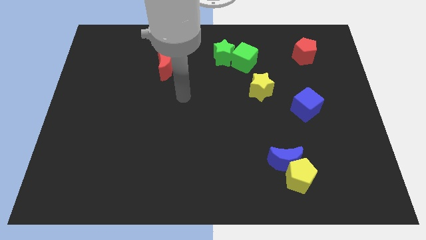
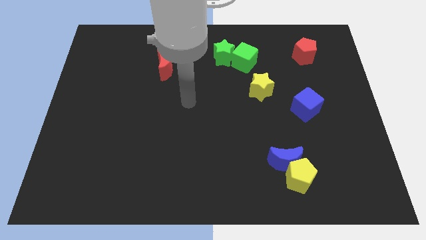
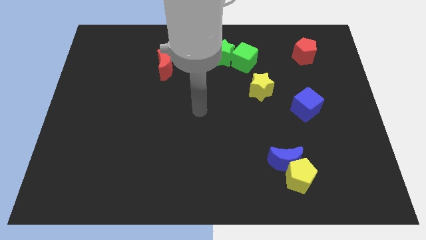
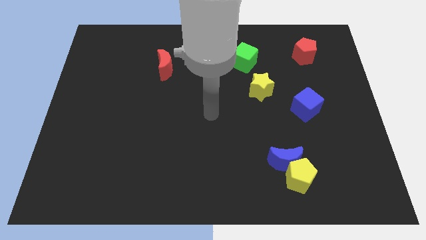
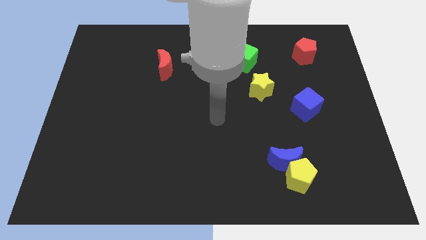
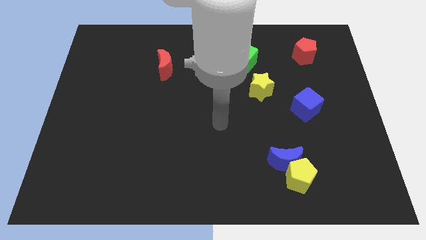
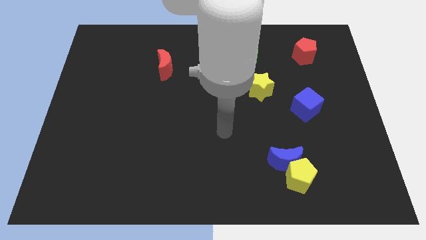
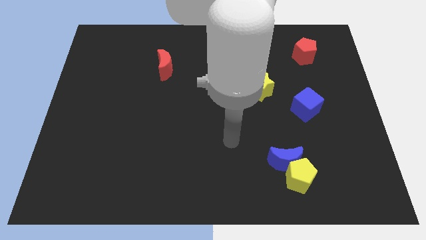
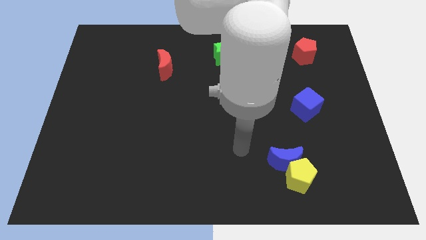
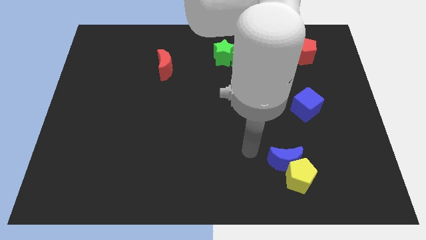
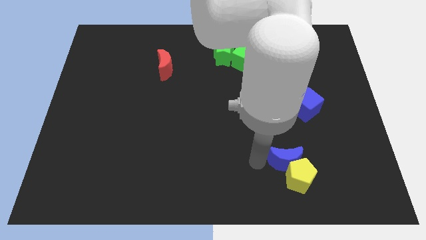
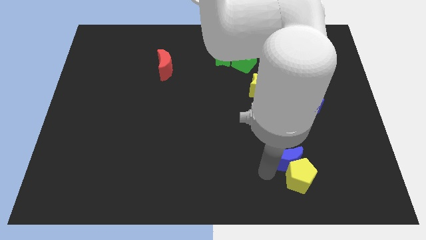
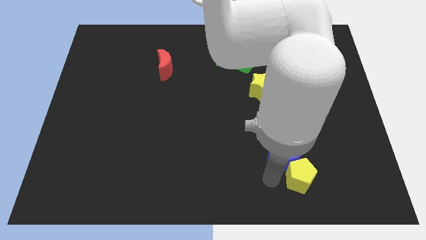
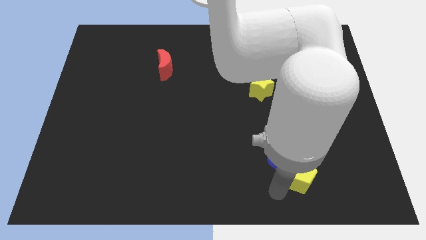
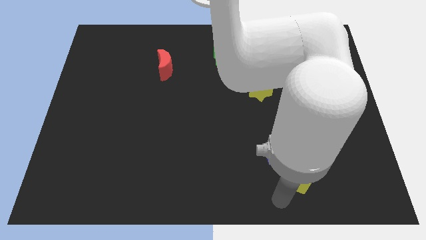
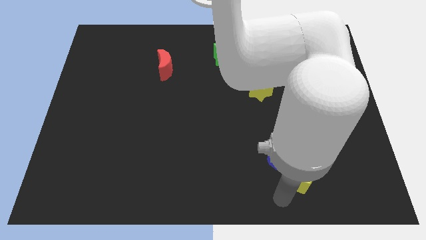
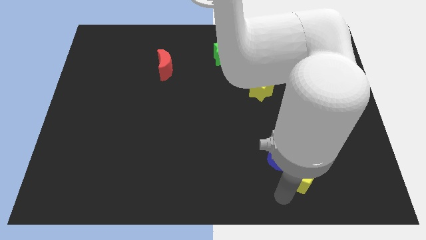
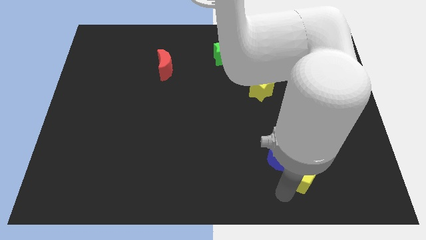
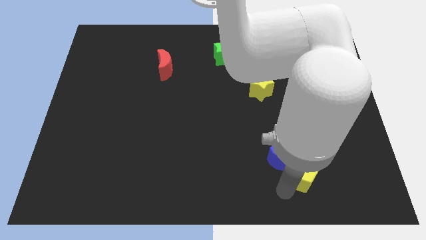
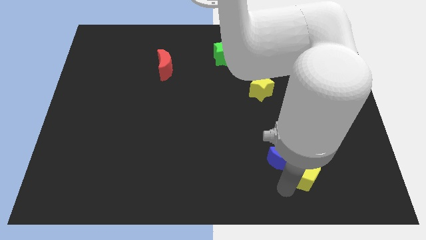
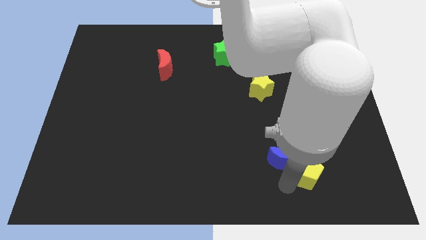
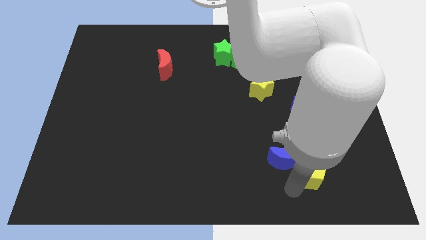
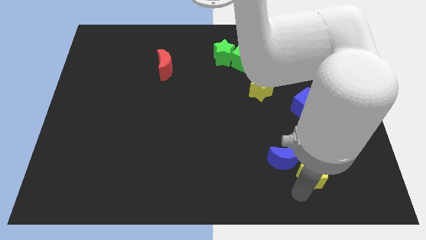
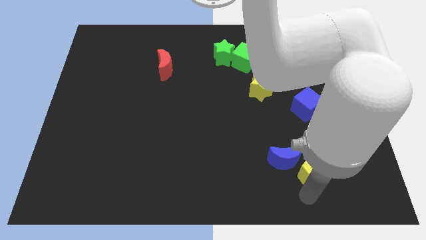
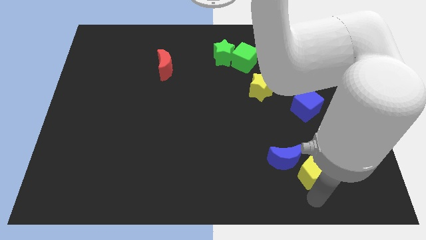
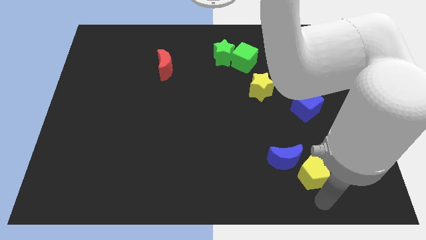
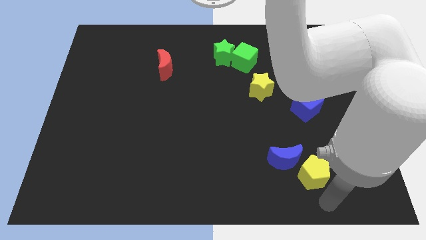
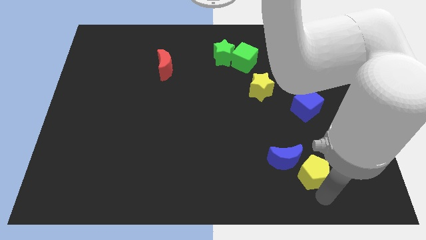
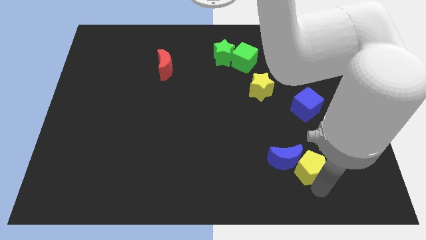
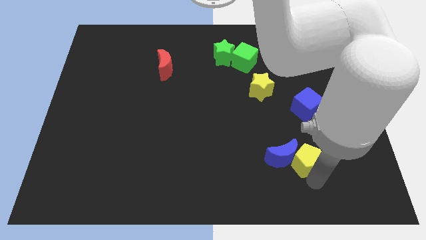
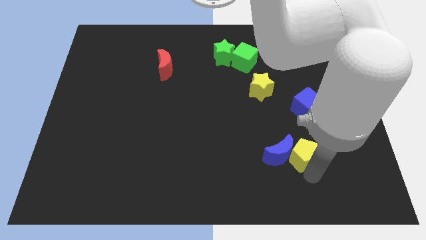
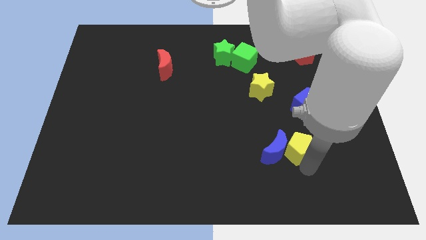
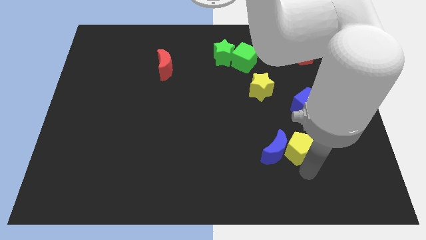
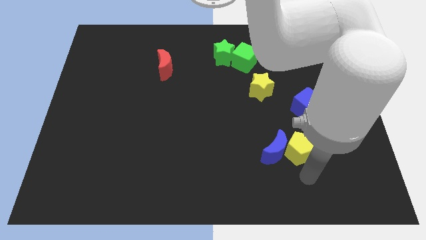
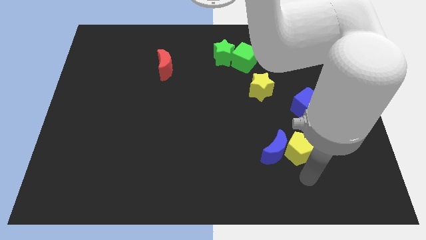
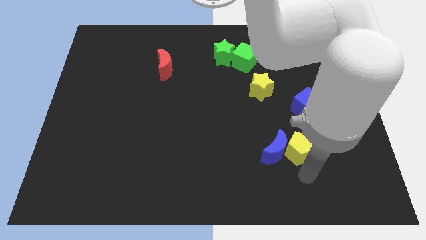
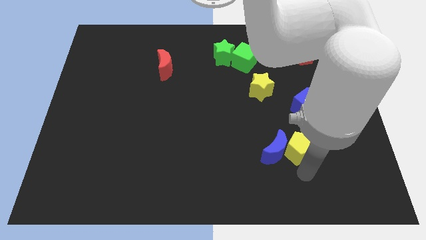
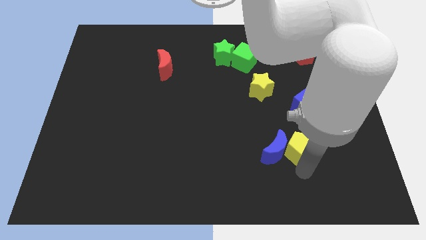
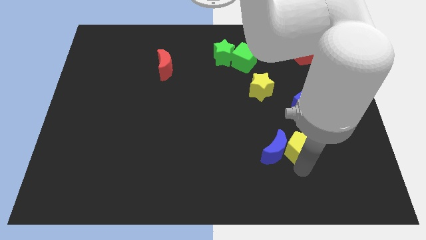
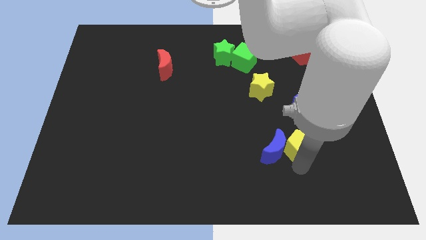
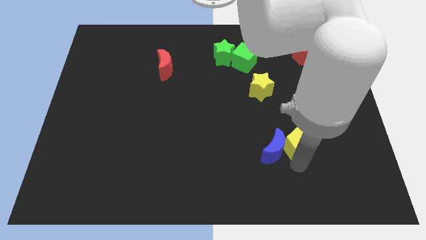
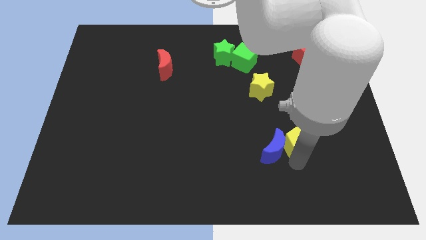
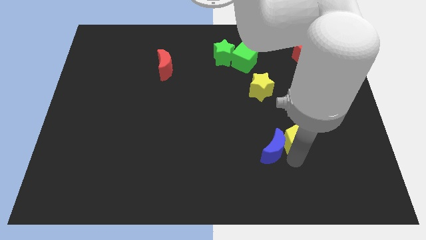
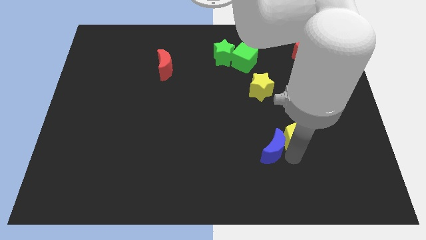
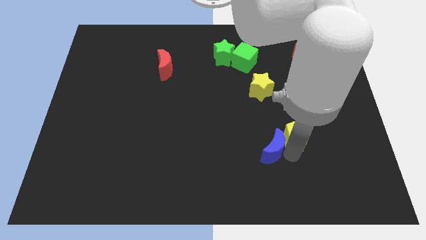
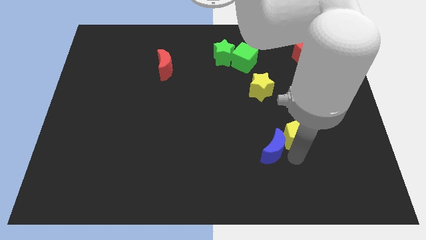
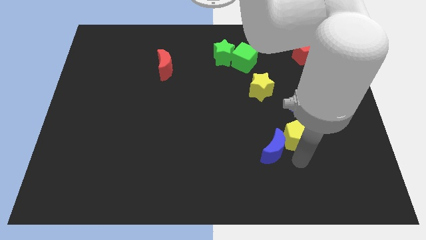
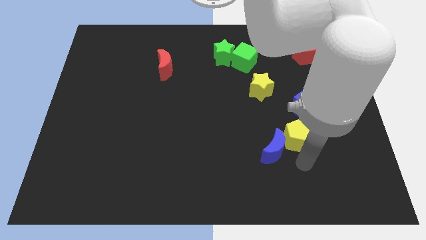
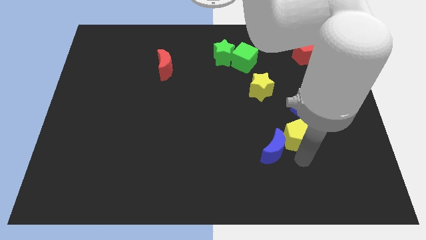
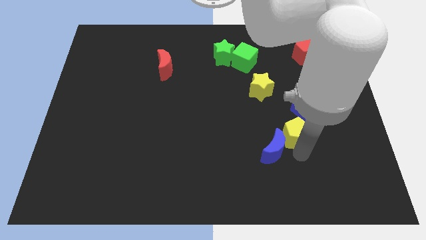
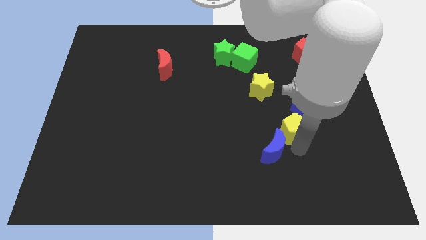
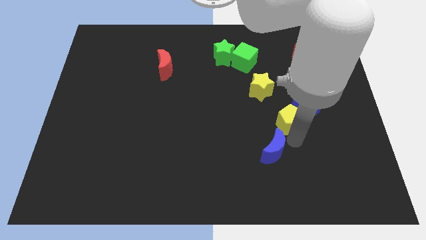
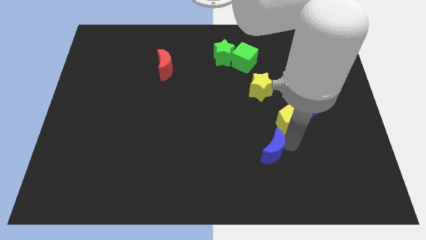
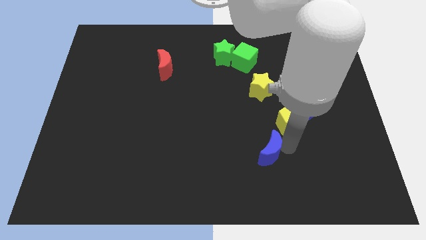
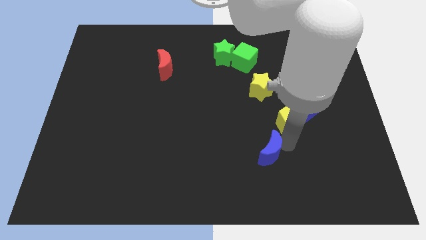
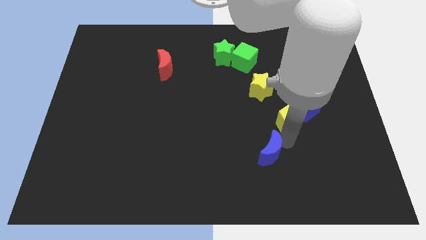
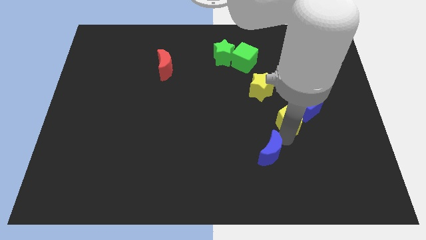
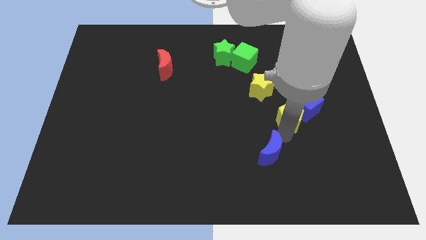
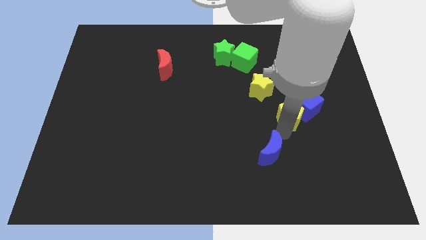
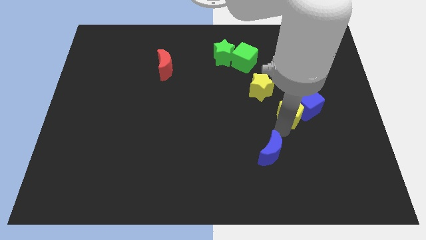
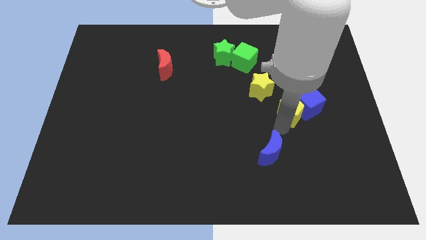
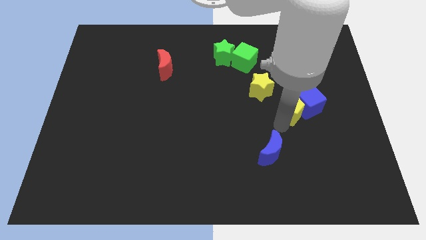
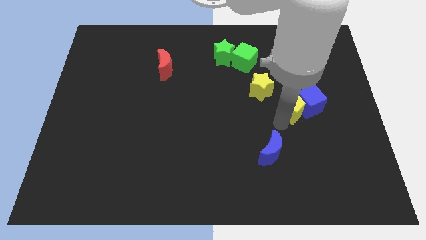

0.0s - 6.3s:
slide the yellow pentagon diagonally up and to the left of the blue cube

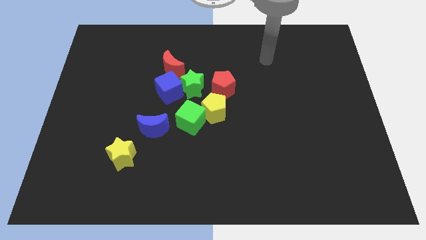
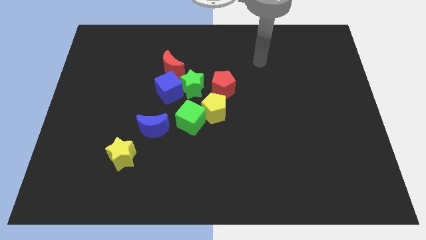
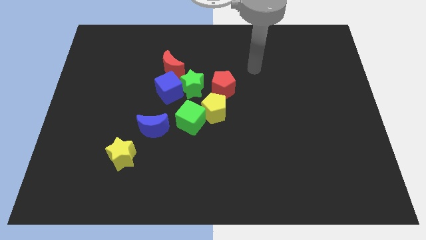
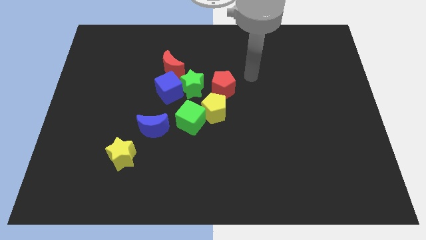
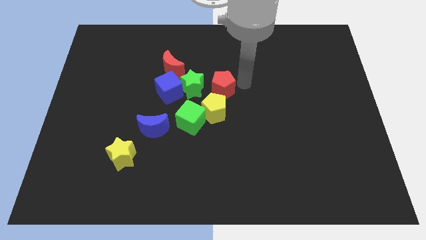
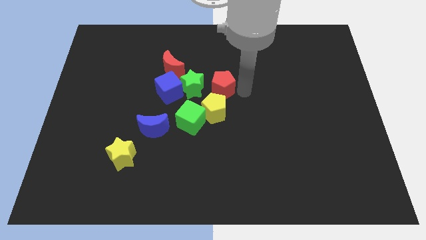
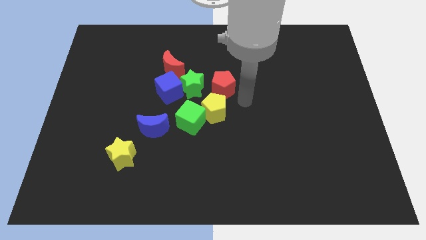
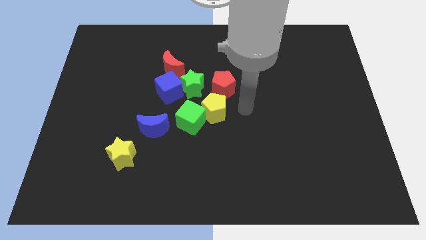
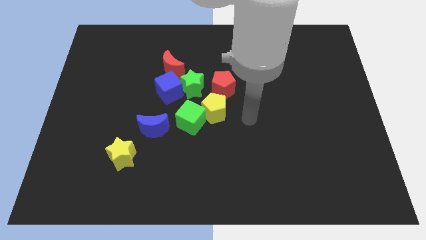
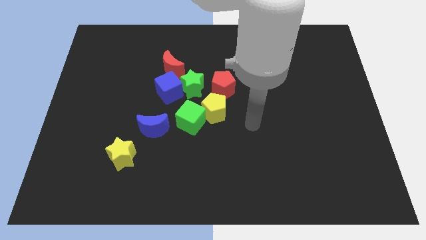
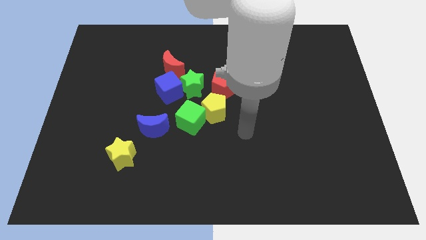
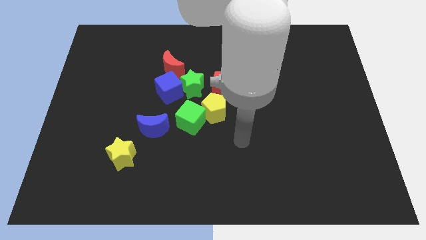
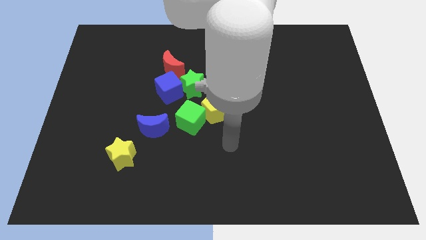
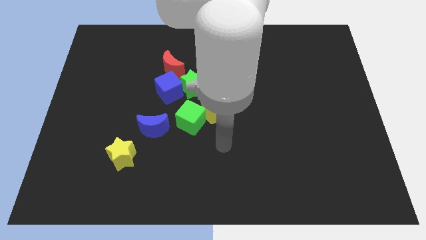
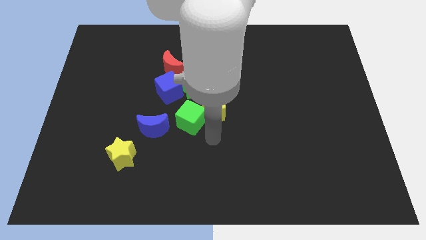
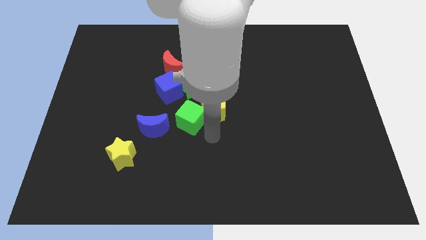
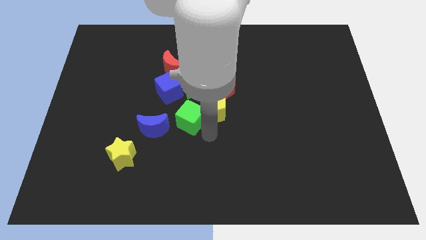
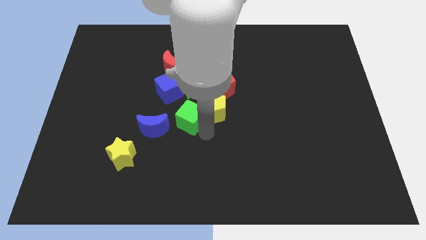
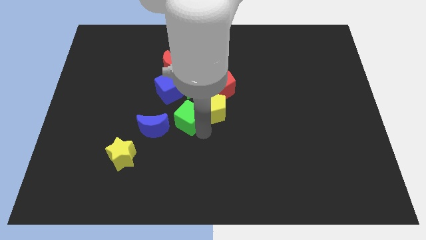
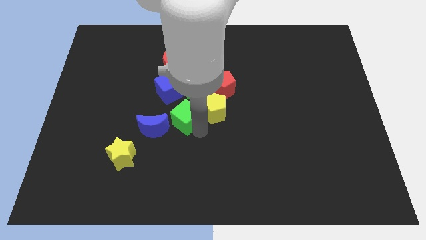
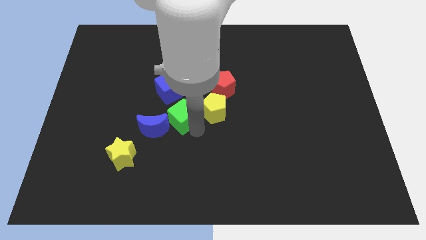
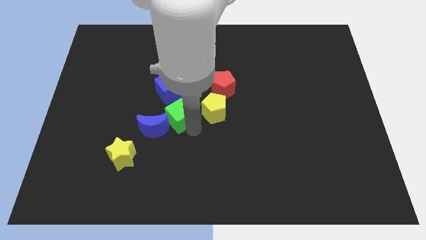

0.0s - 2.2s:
put the green cube diagonally down and to the left of the green star
